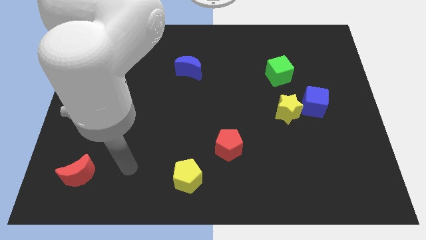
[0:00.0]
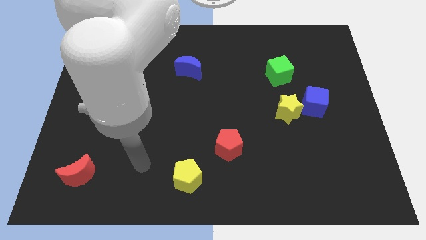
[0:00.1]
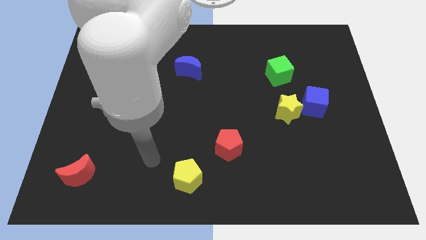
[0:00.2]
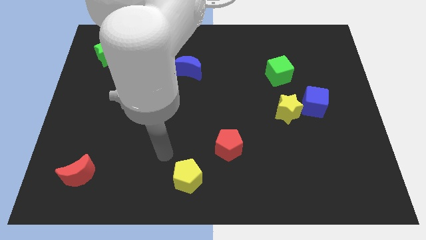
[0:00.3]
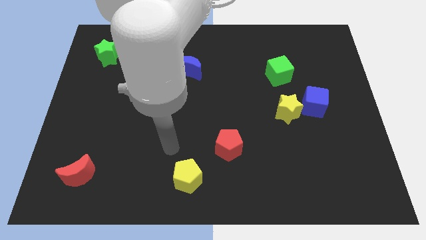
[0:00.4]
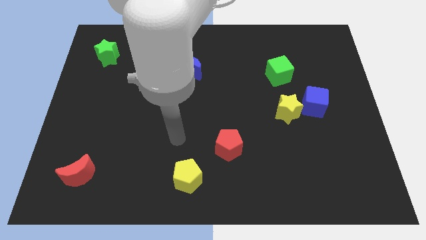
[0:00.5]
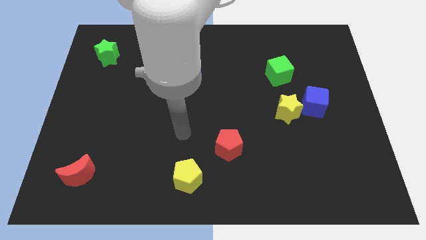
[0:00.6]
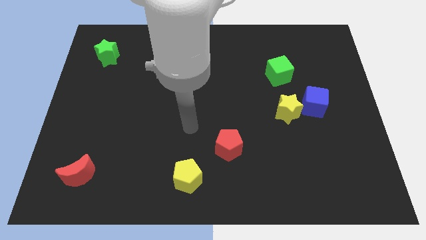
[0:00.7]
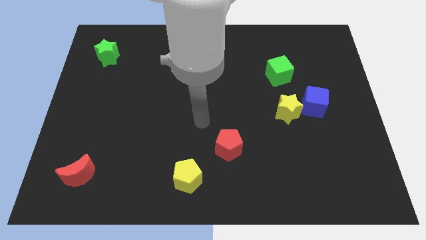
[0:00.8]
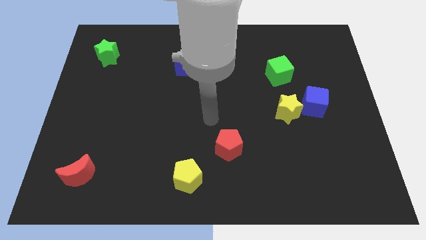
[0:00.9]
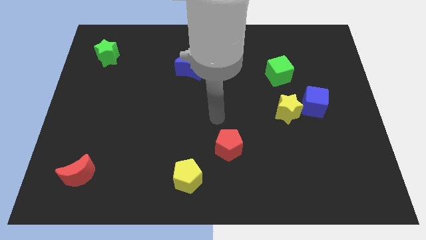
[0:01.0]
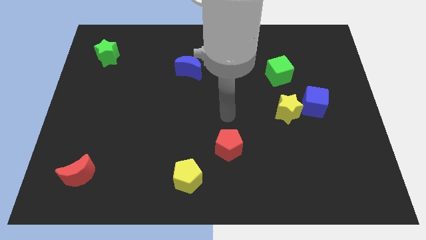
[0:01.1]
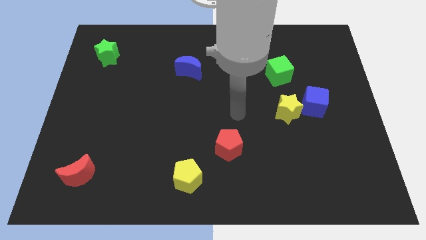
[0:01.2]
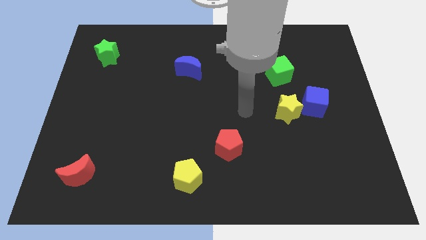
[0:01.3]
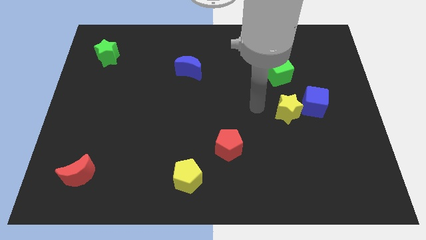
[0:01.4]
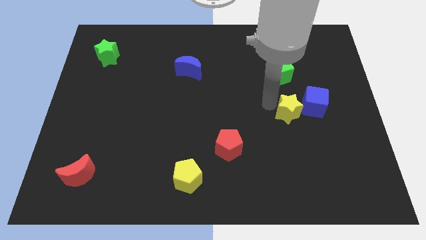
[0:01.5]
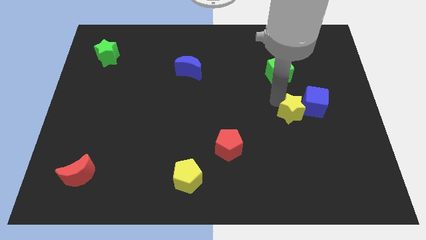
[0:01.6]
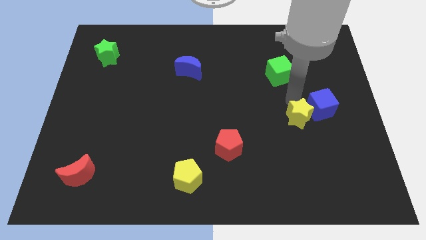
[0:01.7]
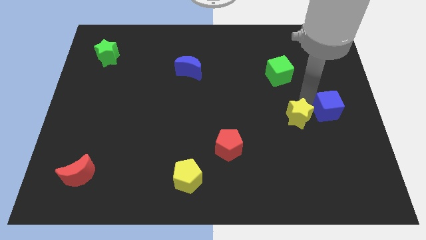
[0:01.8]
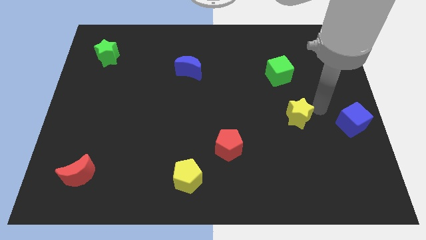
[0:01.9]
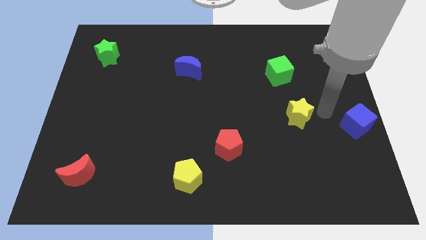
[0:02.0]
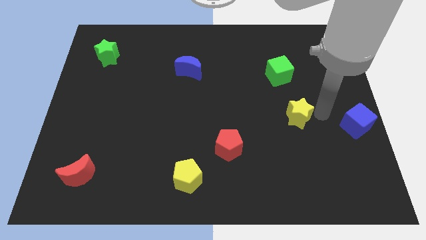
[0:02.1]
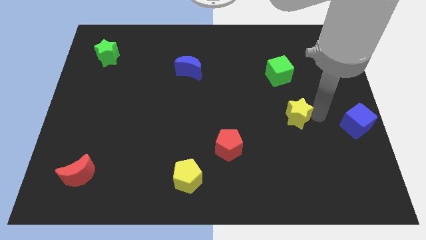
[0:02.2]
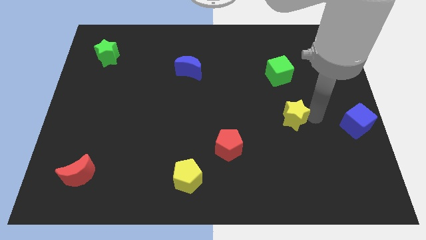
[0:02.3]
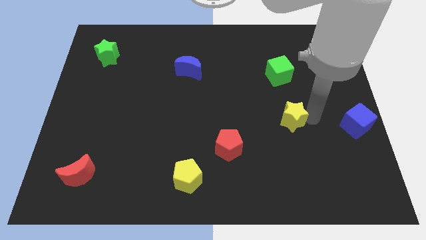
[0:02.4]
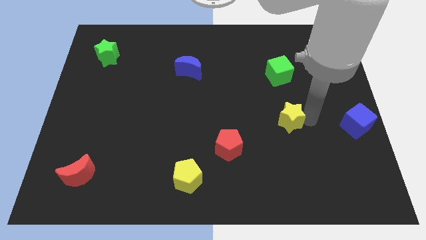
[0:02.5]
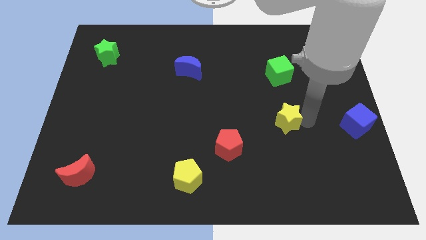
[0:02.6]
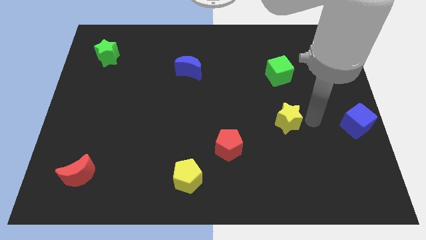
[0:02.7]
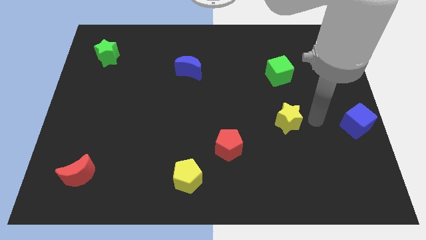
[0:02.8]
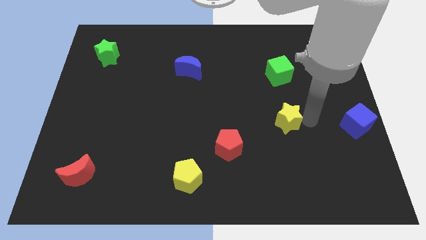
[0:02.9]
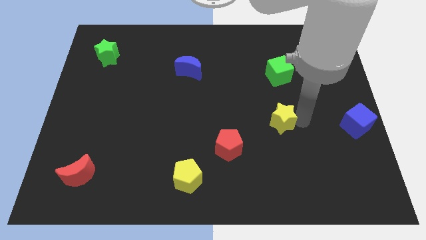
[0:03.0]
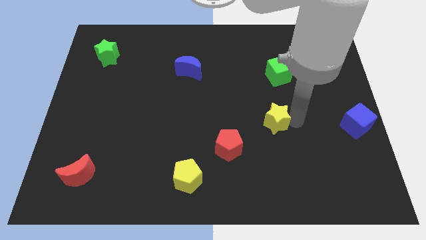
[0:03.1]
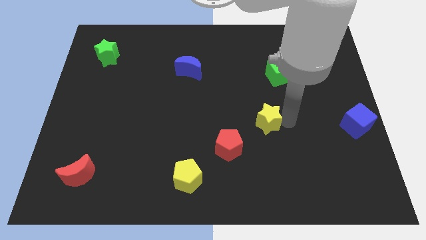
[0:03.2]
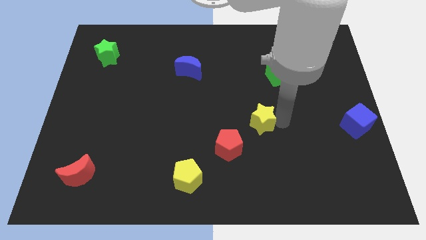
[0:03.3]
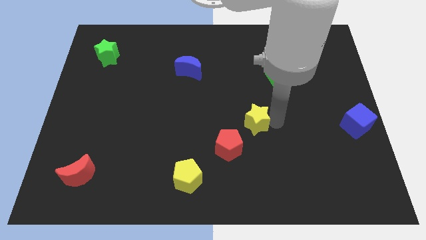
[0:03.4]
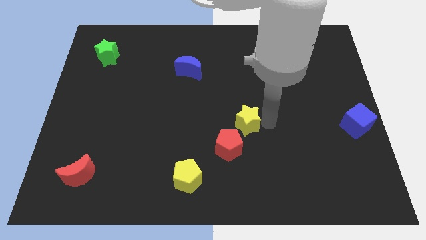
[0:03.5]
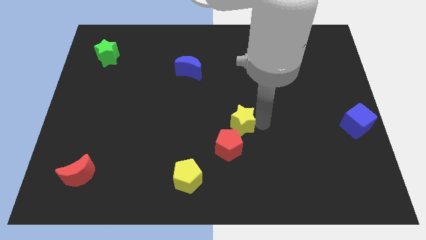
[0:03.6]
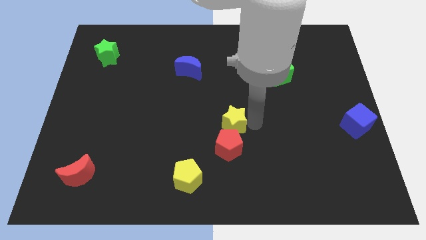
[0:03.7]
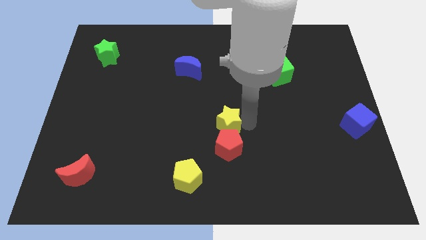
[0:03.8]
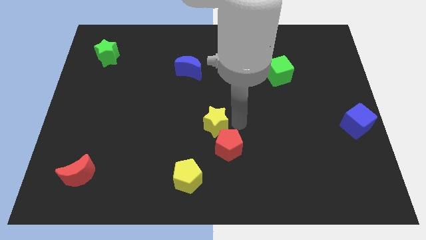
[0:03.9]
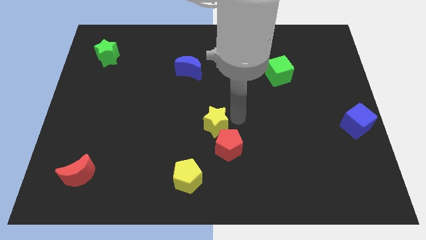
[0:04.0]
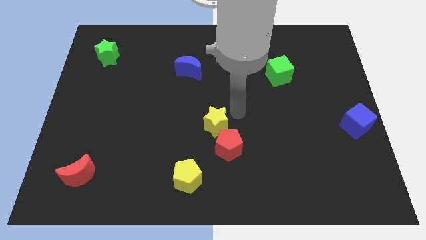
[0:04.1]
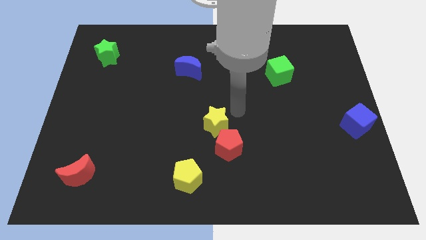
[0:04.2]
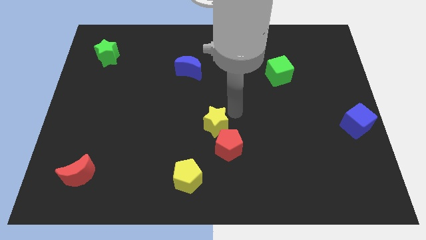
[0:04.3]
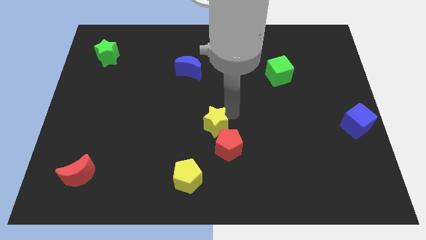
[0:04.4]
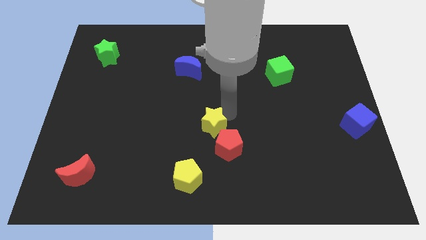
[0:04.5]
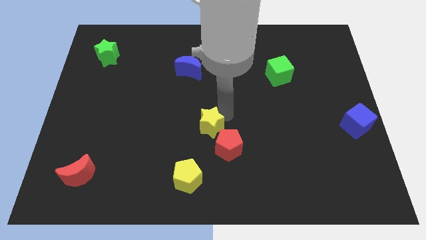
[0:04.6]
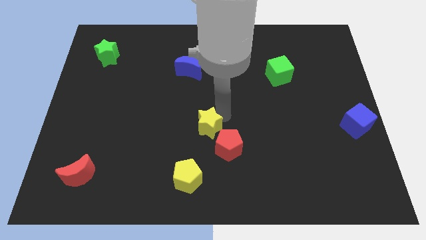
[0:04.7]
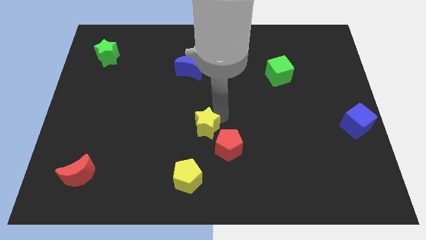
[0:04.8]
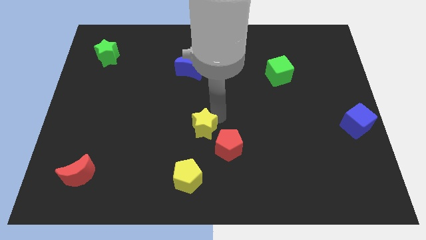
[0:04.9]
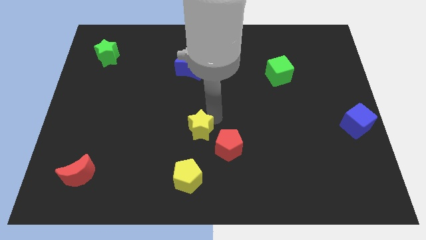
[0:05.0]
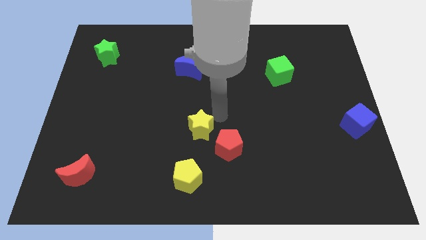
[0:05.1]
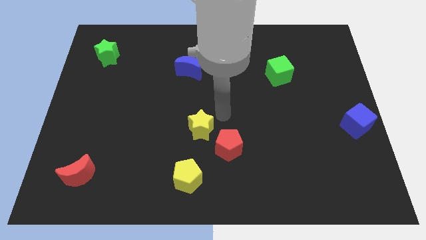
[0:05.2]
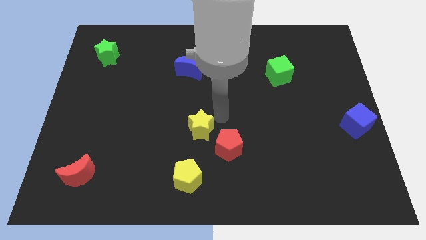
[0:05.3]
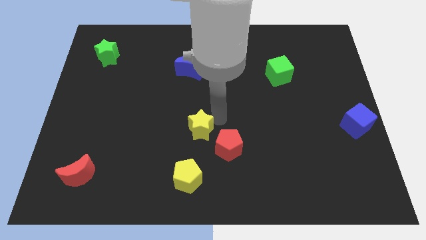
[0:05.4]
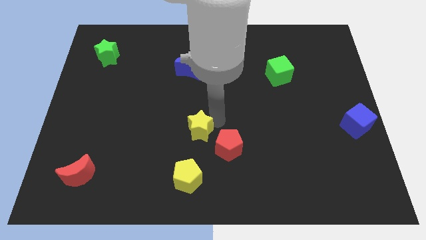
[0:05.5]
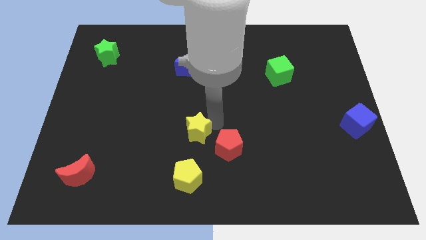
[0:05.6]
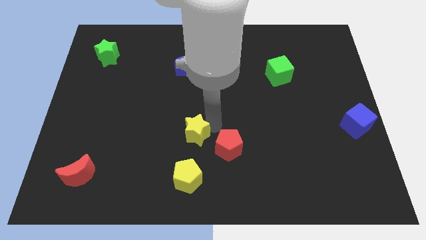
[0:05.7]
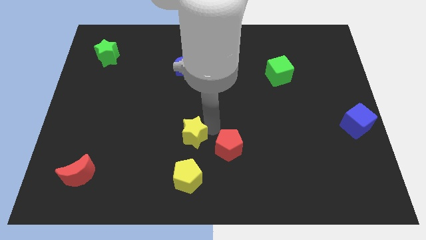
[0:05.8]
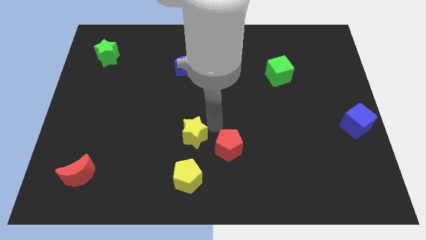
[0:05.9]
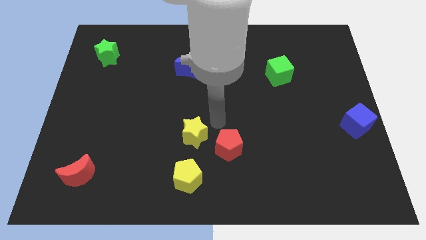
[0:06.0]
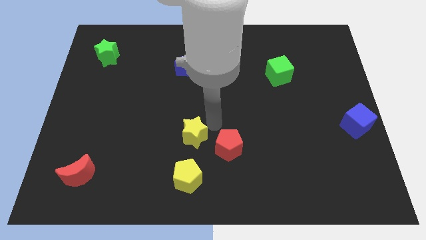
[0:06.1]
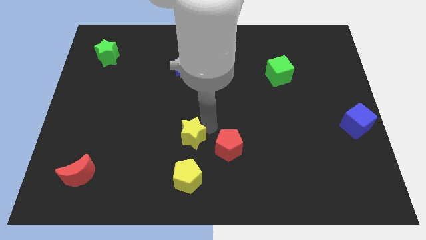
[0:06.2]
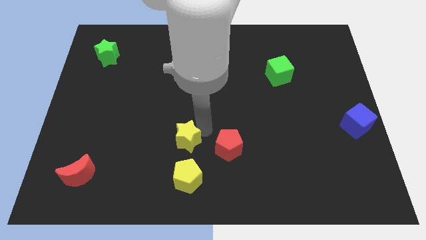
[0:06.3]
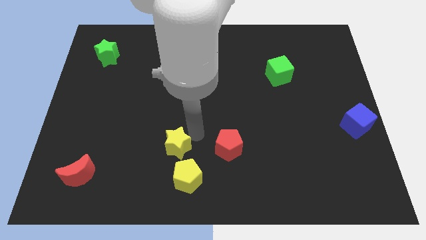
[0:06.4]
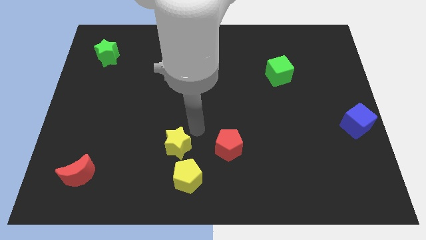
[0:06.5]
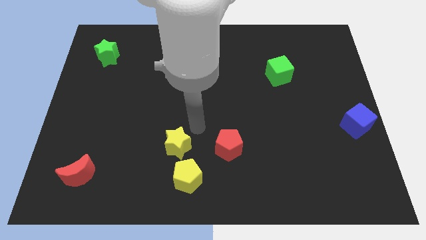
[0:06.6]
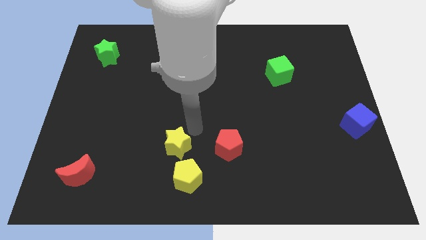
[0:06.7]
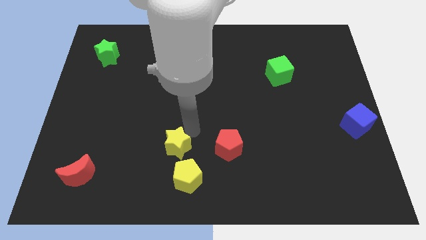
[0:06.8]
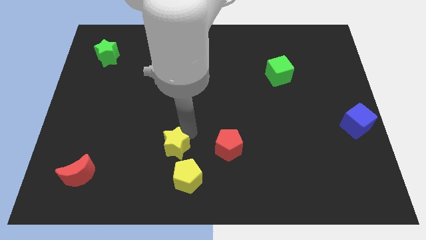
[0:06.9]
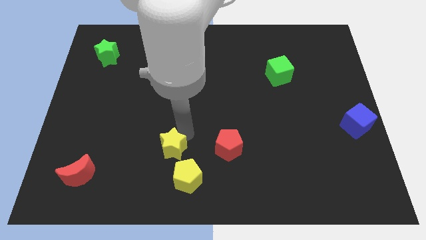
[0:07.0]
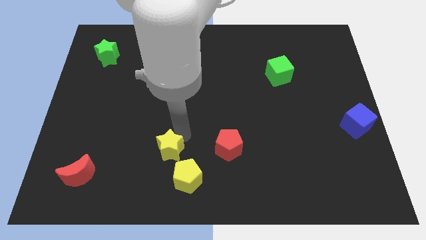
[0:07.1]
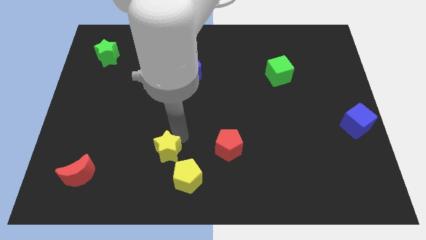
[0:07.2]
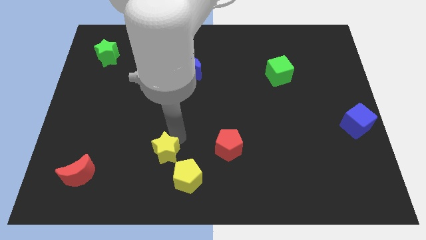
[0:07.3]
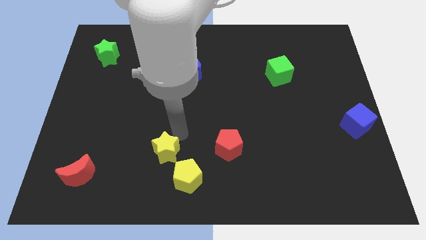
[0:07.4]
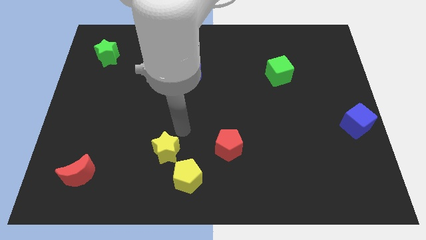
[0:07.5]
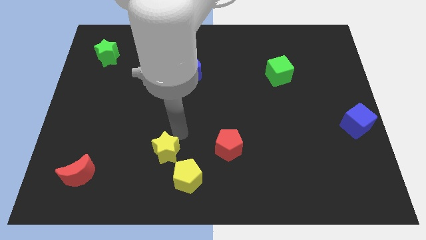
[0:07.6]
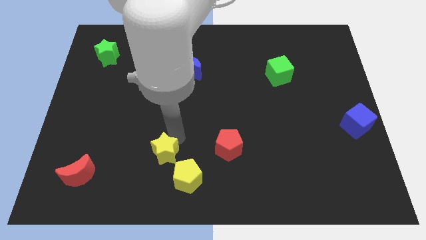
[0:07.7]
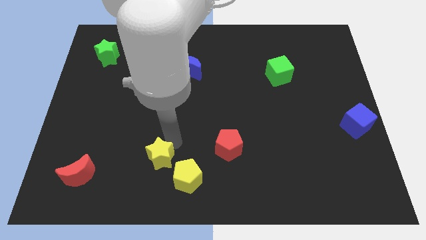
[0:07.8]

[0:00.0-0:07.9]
slide the yellow star just left of the yellow pentagon
